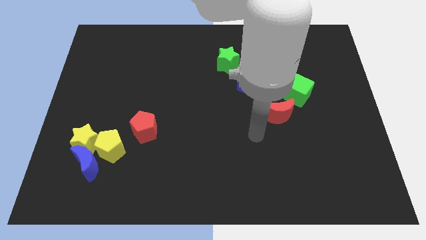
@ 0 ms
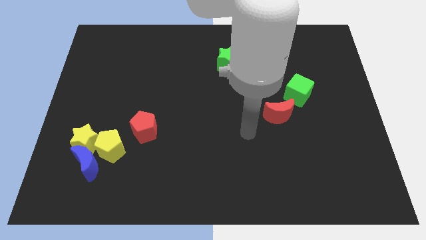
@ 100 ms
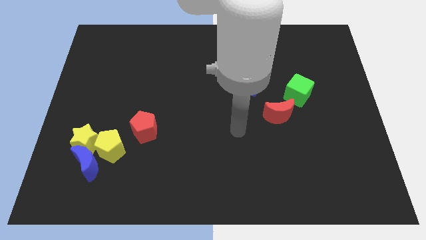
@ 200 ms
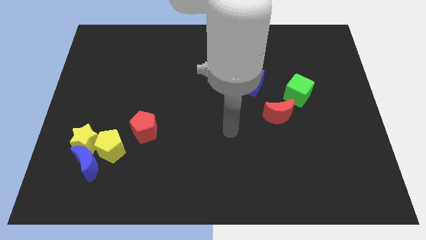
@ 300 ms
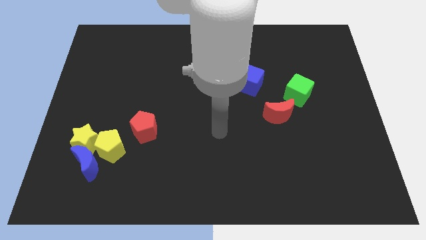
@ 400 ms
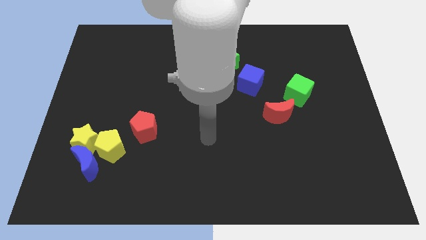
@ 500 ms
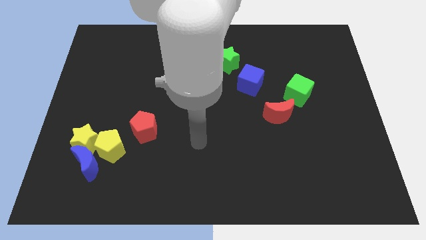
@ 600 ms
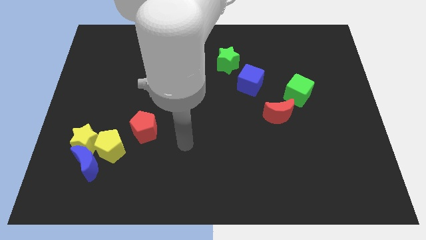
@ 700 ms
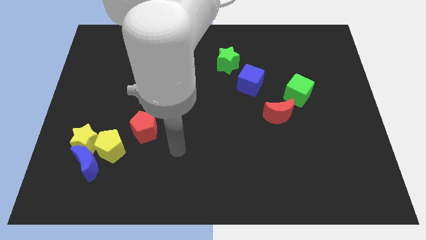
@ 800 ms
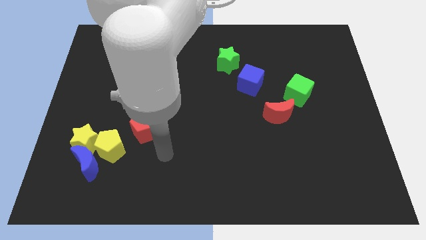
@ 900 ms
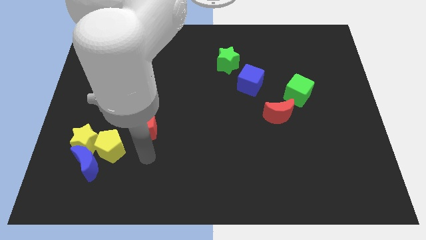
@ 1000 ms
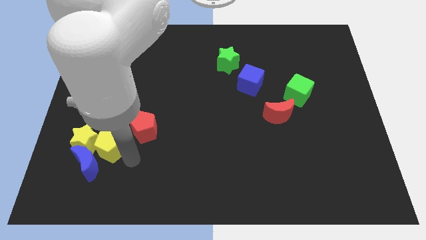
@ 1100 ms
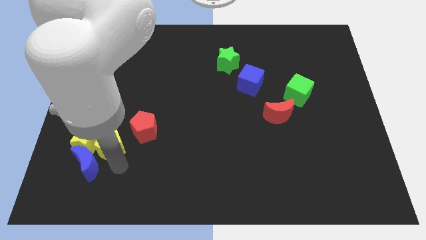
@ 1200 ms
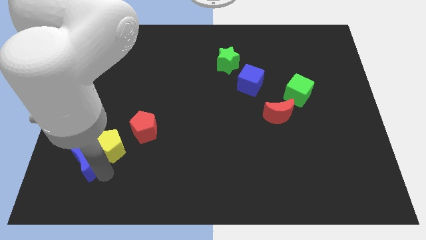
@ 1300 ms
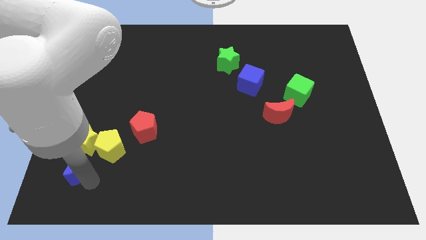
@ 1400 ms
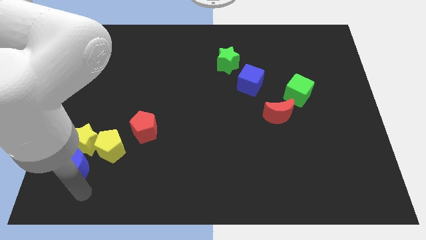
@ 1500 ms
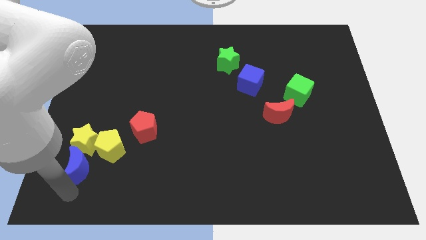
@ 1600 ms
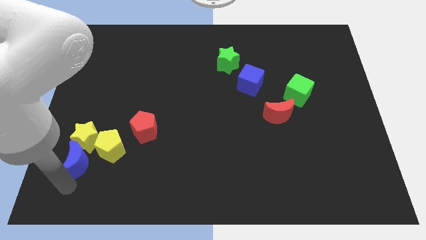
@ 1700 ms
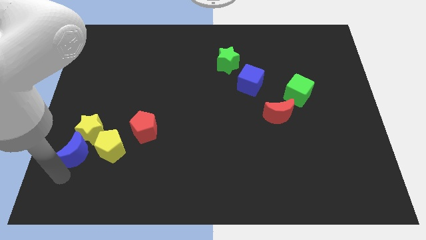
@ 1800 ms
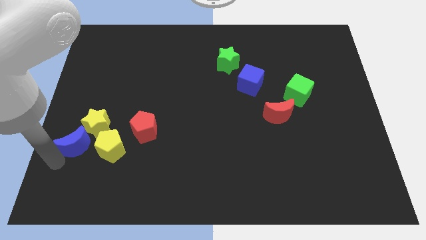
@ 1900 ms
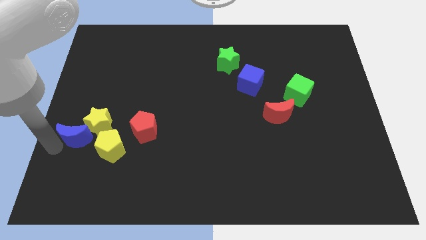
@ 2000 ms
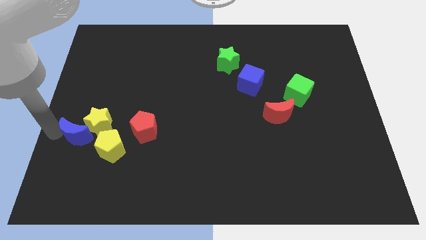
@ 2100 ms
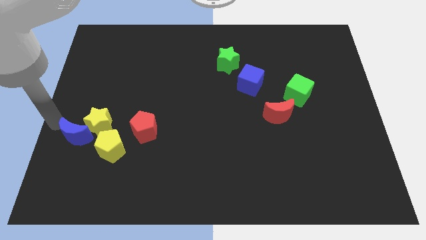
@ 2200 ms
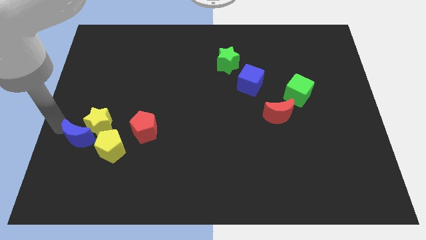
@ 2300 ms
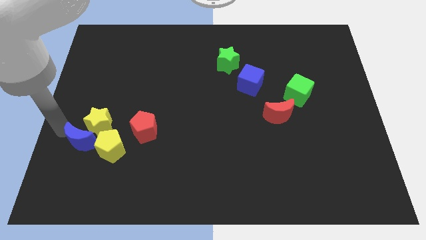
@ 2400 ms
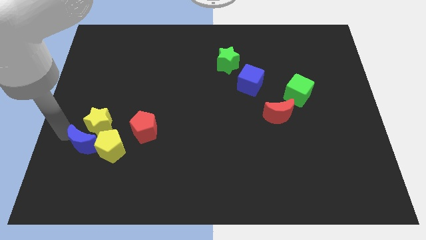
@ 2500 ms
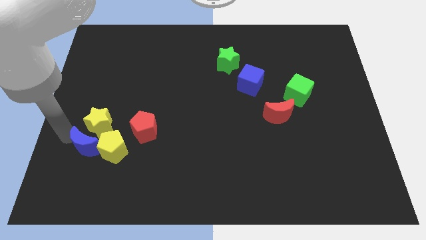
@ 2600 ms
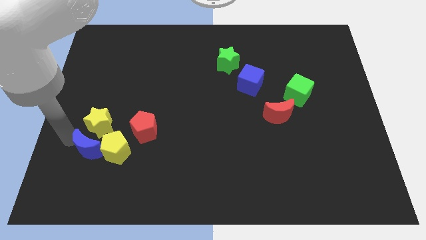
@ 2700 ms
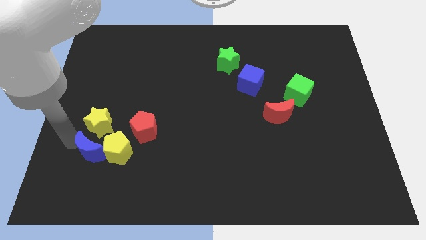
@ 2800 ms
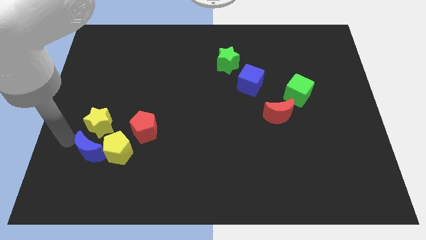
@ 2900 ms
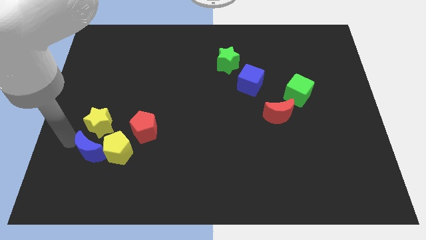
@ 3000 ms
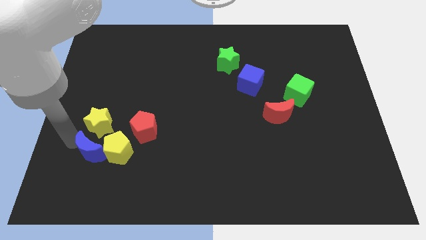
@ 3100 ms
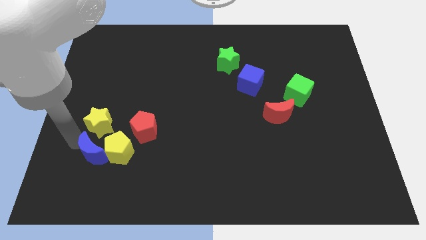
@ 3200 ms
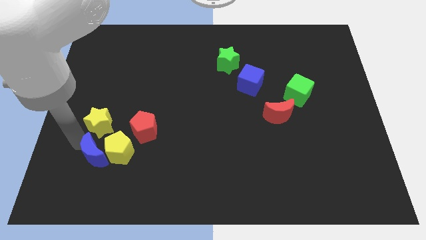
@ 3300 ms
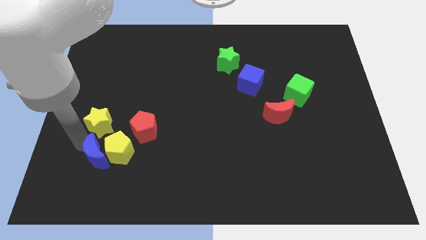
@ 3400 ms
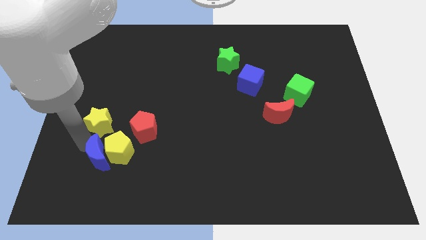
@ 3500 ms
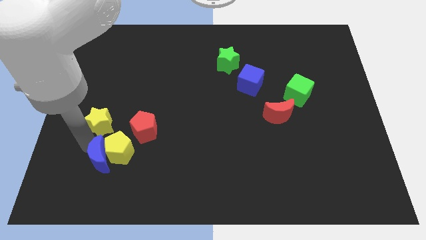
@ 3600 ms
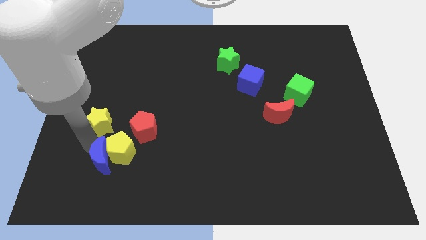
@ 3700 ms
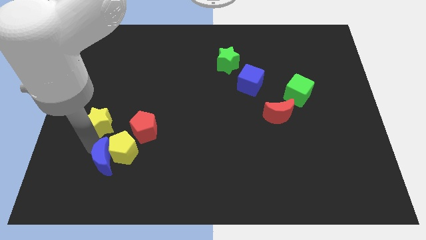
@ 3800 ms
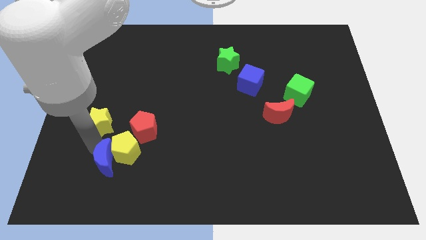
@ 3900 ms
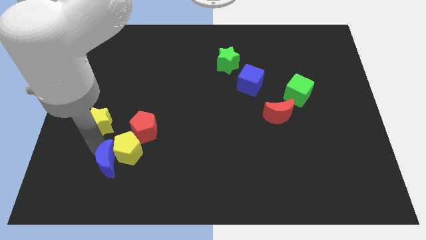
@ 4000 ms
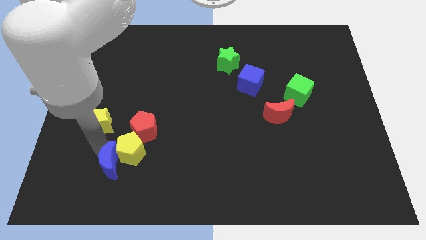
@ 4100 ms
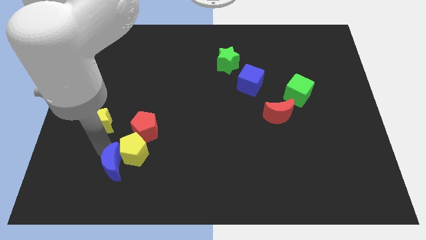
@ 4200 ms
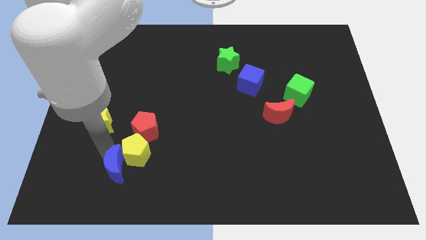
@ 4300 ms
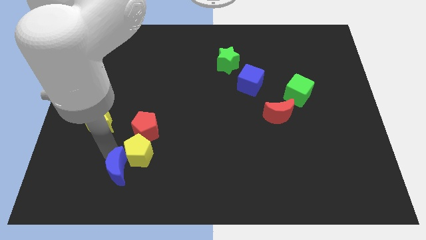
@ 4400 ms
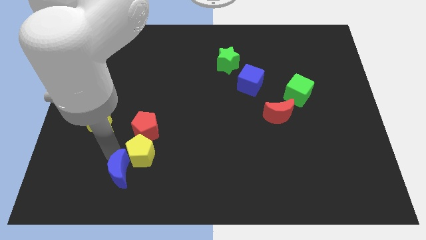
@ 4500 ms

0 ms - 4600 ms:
slightly slide the blue moon right

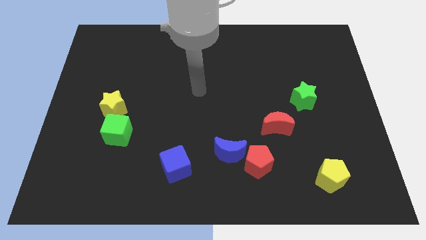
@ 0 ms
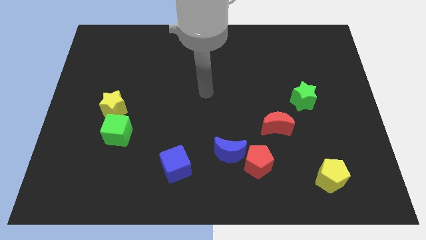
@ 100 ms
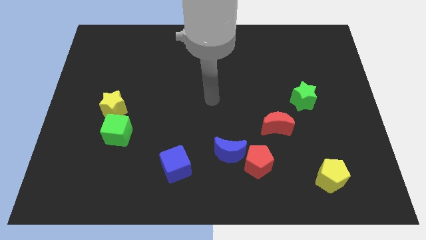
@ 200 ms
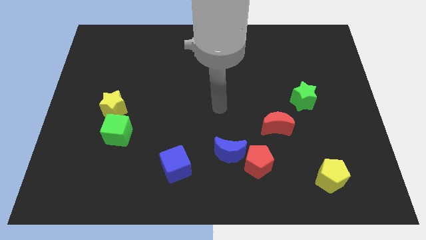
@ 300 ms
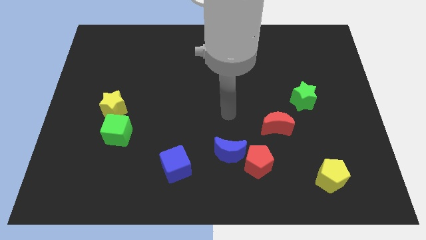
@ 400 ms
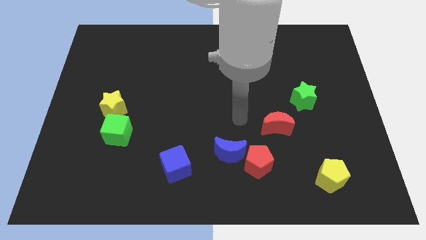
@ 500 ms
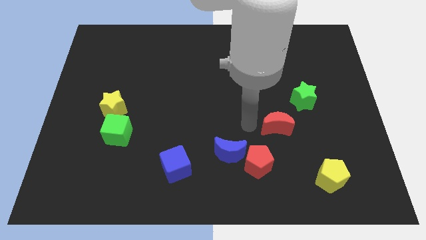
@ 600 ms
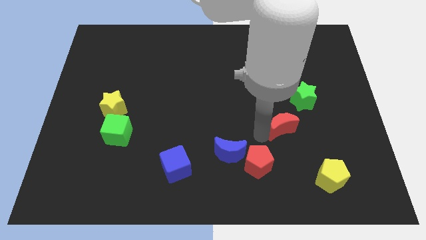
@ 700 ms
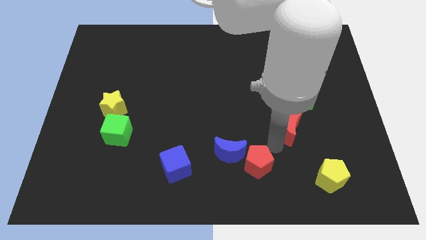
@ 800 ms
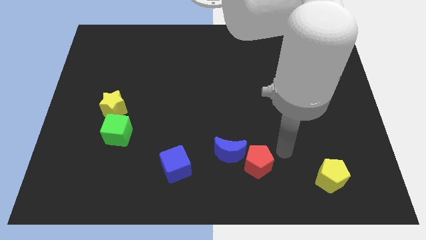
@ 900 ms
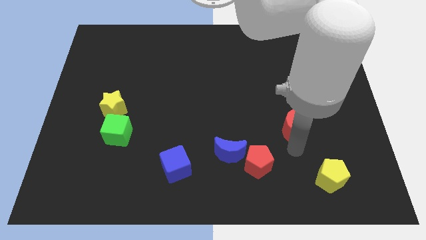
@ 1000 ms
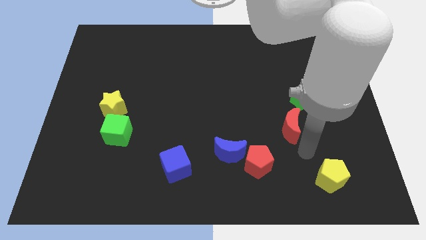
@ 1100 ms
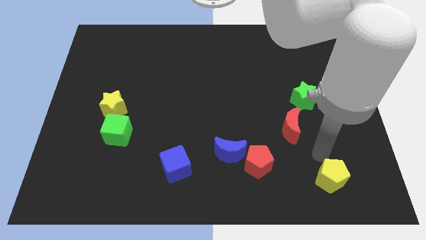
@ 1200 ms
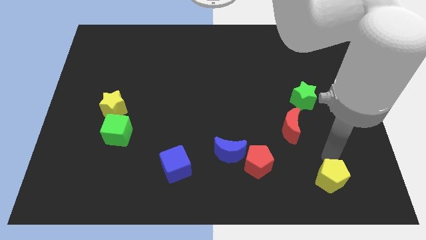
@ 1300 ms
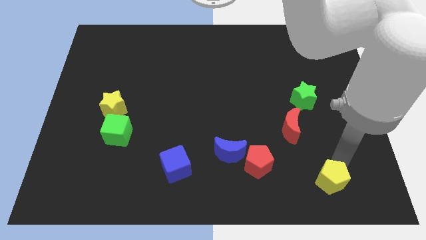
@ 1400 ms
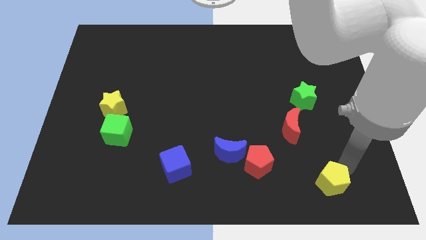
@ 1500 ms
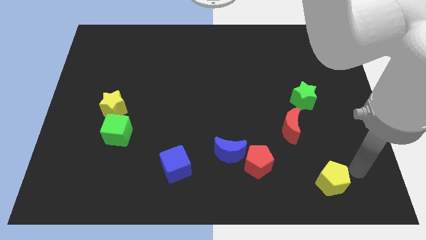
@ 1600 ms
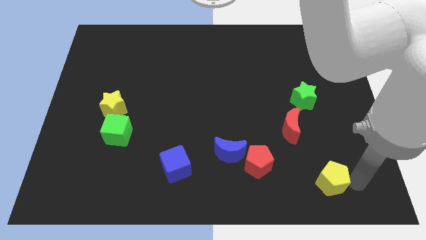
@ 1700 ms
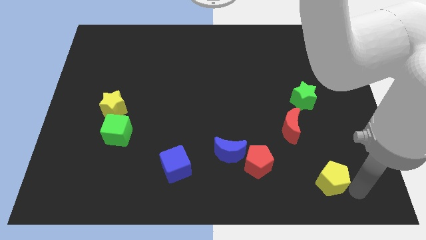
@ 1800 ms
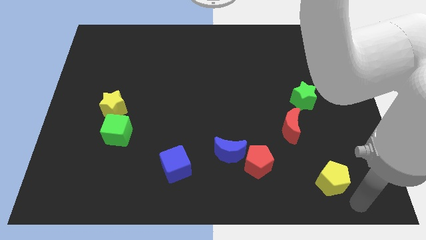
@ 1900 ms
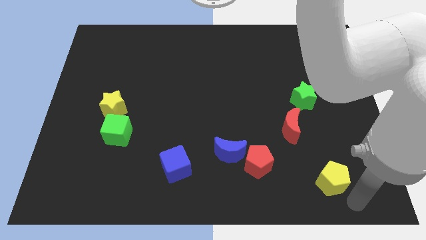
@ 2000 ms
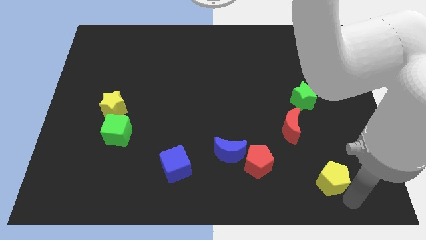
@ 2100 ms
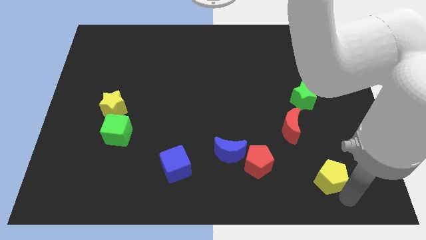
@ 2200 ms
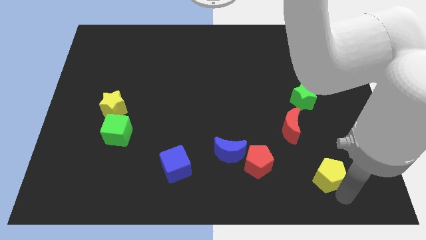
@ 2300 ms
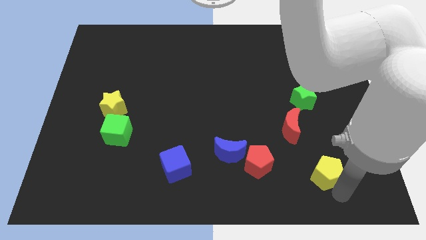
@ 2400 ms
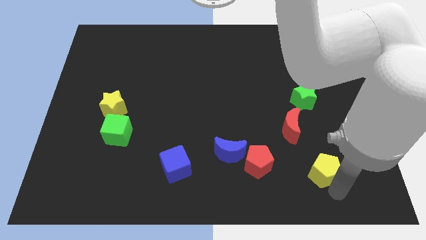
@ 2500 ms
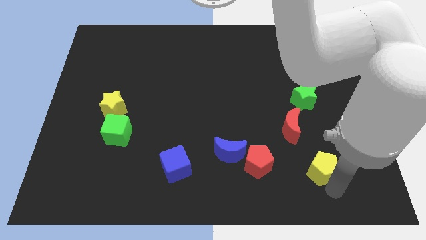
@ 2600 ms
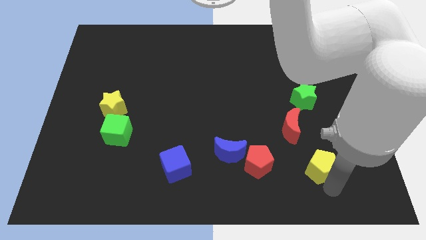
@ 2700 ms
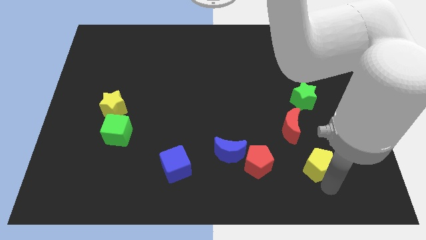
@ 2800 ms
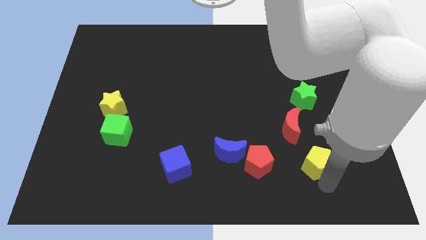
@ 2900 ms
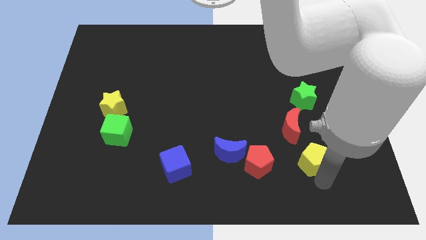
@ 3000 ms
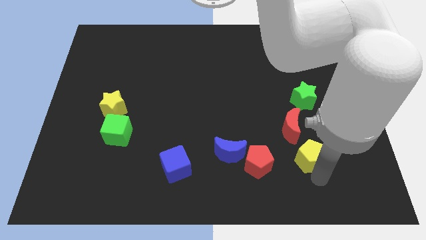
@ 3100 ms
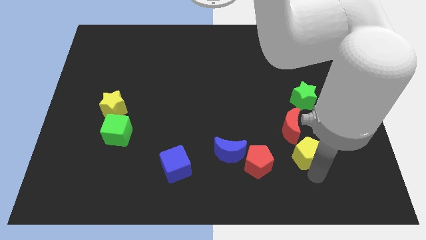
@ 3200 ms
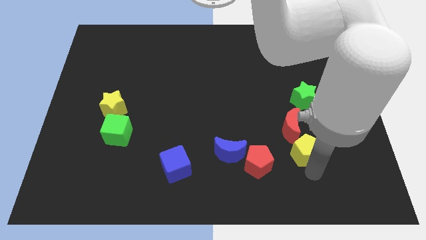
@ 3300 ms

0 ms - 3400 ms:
slightly push the yellow pentagon diagonally up and to the left
